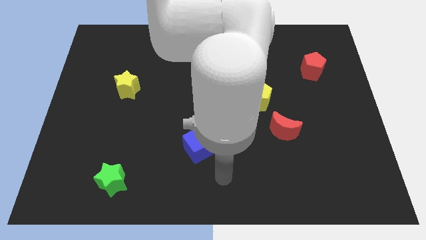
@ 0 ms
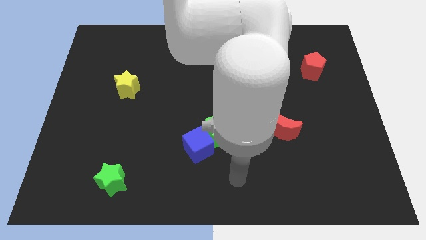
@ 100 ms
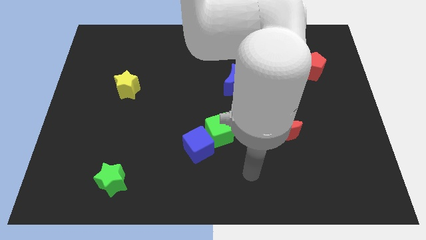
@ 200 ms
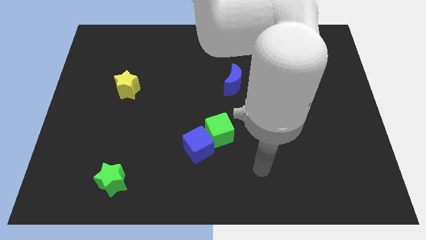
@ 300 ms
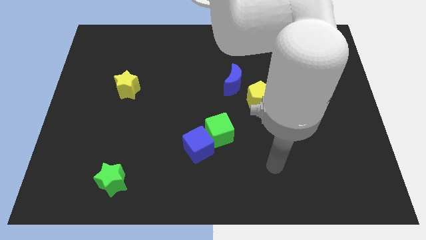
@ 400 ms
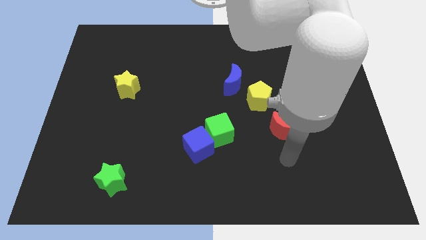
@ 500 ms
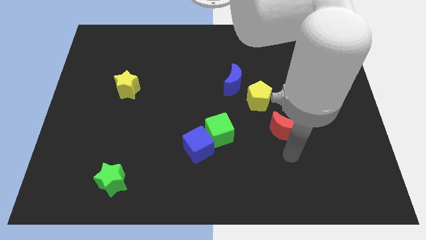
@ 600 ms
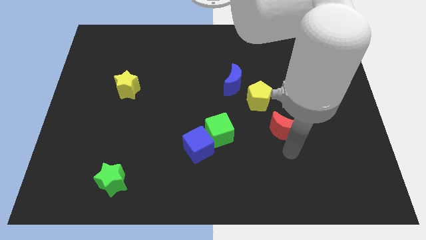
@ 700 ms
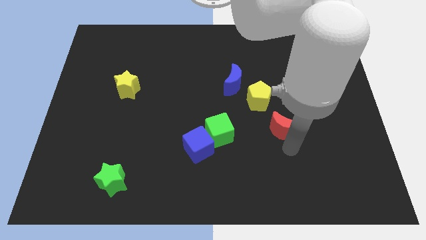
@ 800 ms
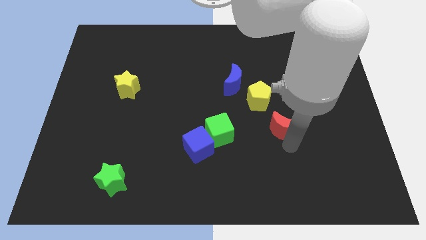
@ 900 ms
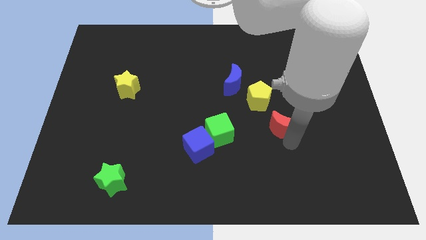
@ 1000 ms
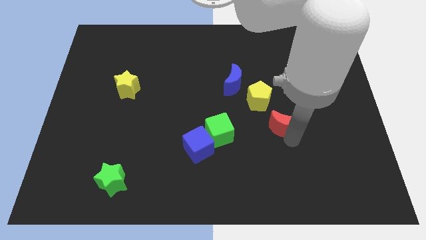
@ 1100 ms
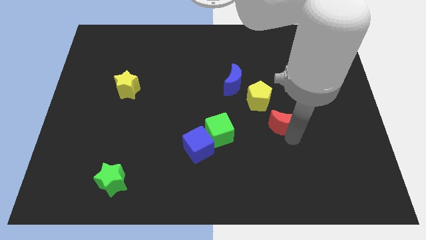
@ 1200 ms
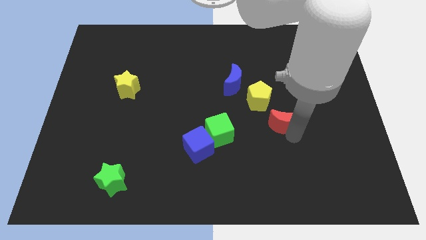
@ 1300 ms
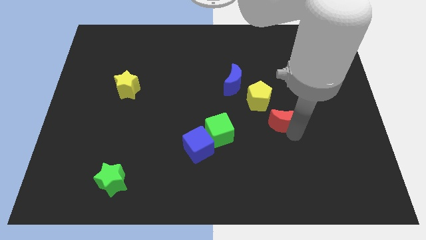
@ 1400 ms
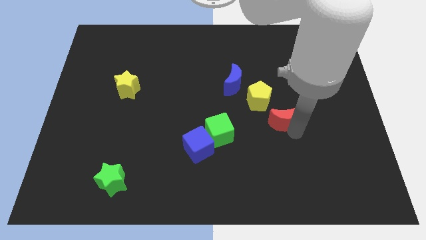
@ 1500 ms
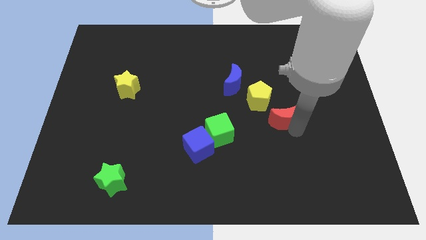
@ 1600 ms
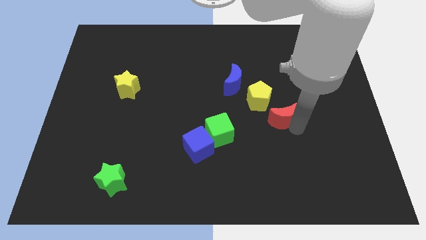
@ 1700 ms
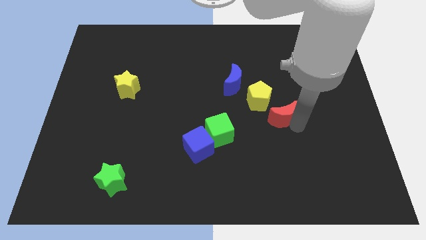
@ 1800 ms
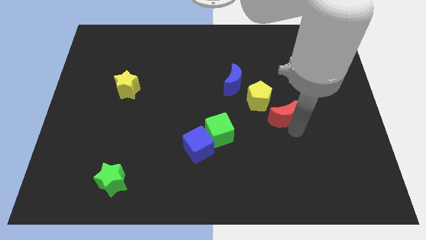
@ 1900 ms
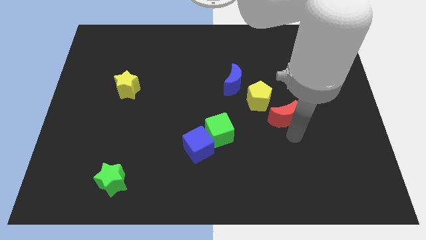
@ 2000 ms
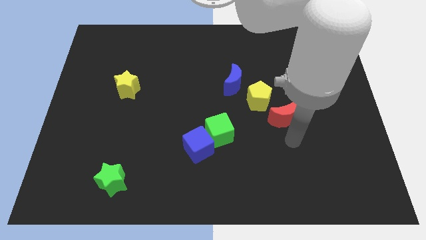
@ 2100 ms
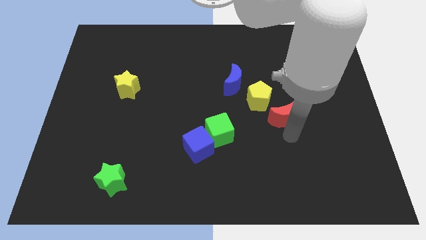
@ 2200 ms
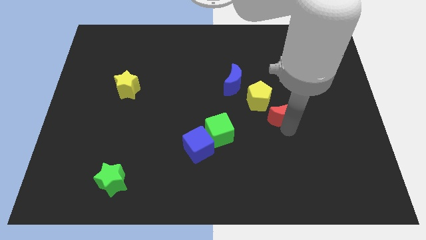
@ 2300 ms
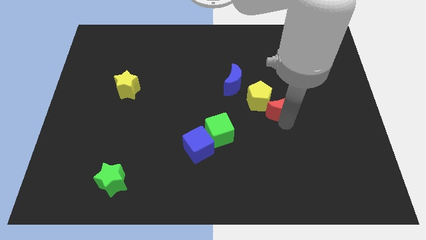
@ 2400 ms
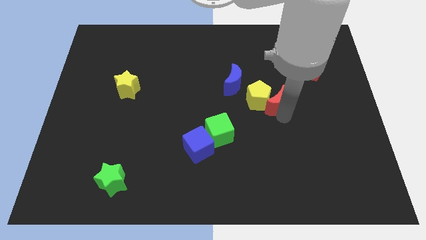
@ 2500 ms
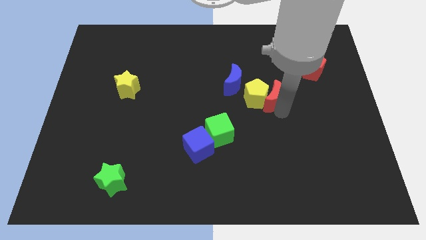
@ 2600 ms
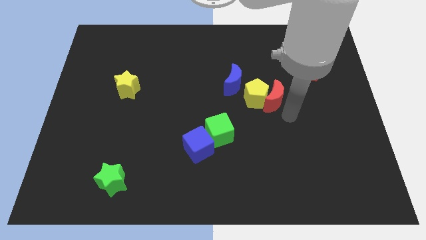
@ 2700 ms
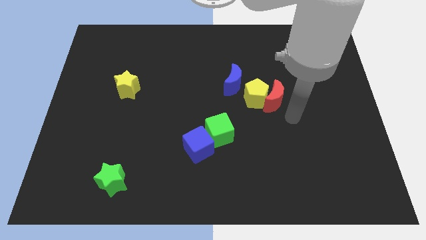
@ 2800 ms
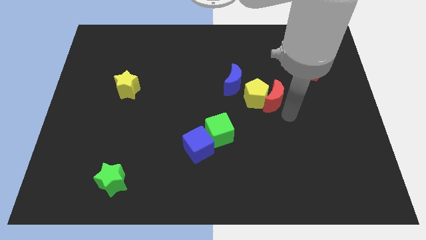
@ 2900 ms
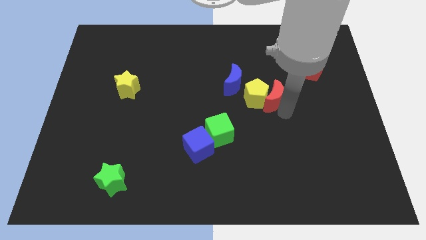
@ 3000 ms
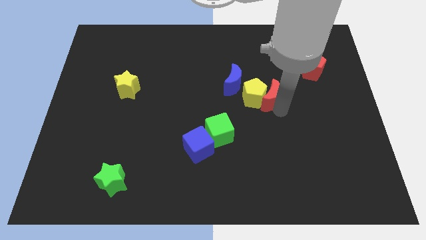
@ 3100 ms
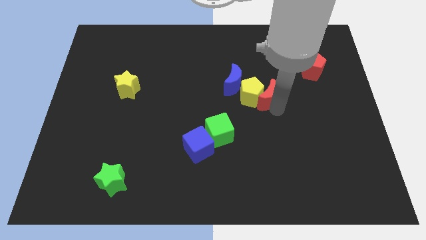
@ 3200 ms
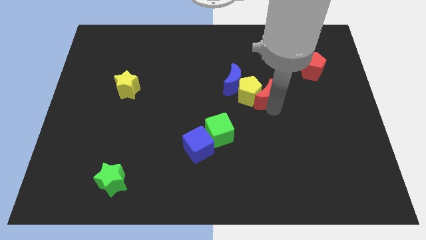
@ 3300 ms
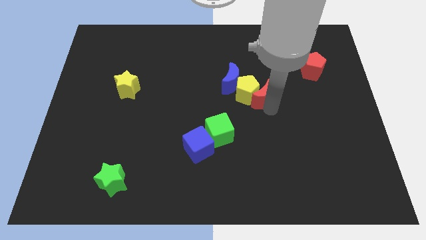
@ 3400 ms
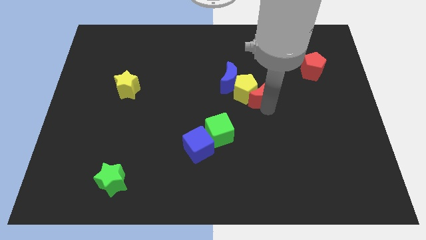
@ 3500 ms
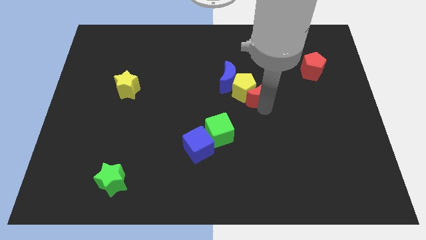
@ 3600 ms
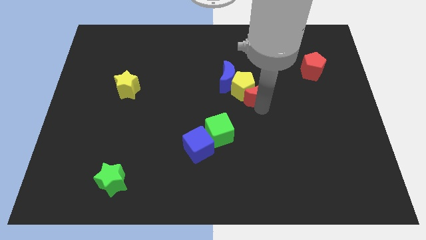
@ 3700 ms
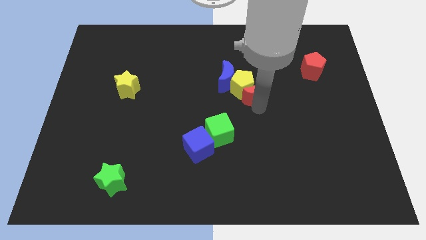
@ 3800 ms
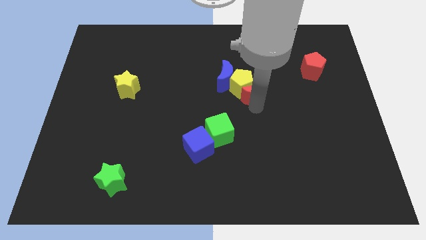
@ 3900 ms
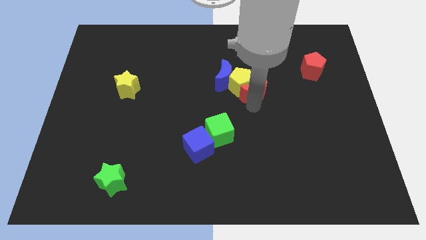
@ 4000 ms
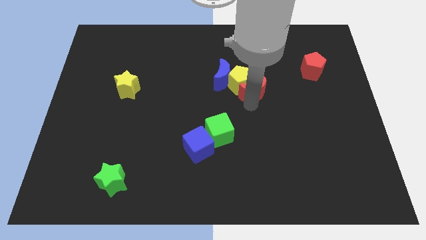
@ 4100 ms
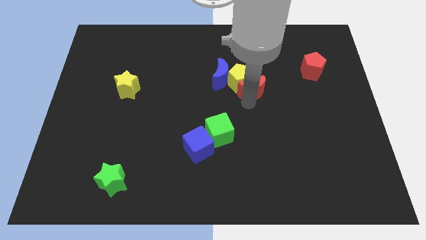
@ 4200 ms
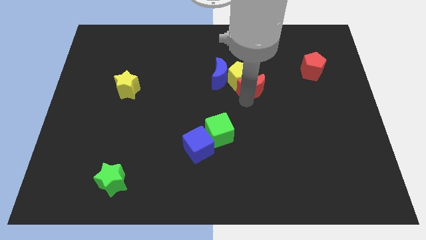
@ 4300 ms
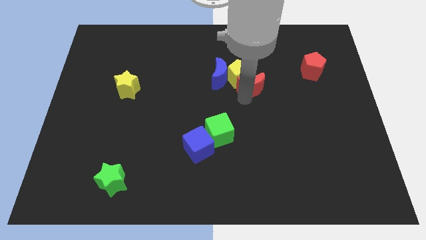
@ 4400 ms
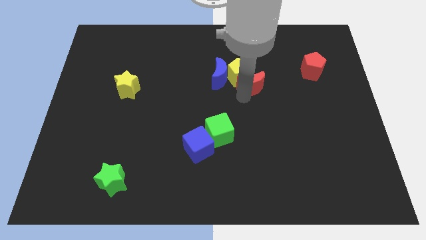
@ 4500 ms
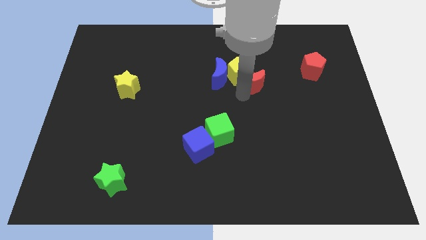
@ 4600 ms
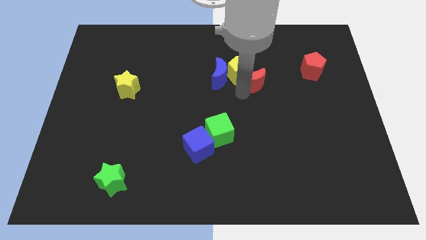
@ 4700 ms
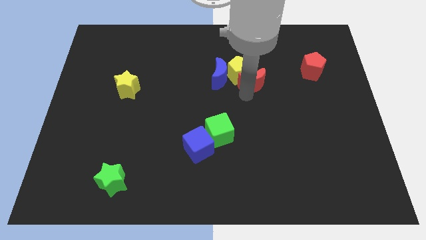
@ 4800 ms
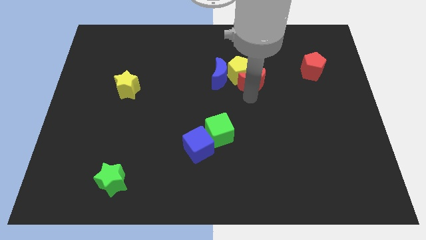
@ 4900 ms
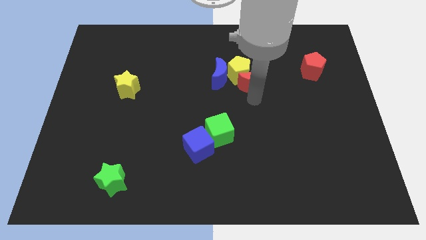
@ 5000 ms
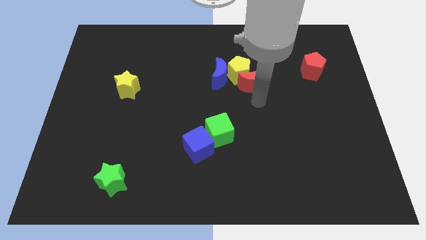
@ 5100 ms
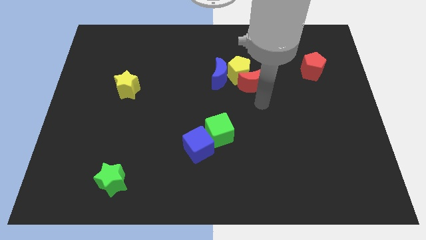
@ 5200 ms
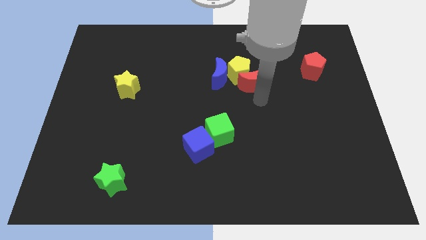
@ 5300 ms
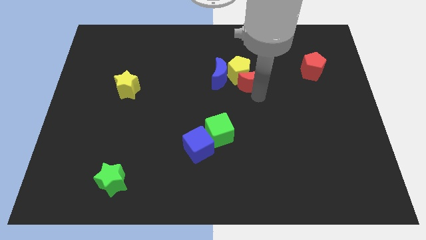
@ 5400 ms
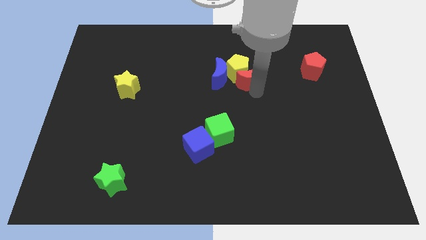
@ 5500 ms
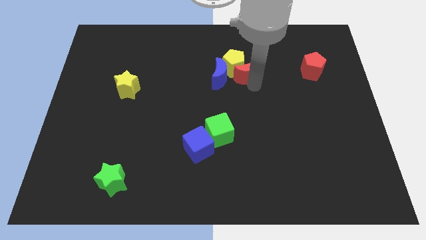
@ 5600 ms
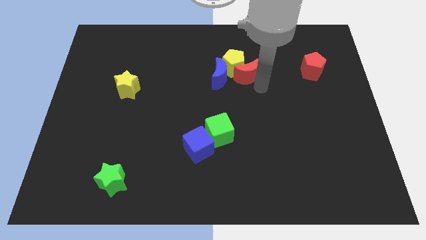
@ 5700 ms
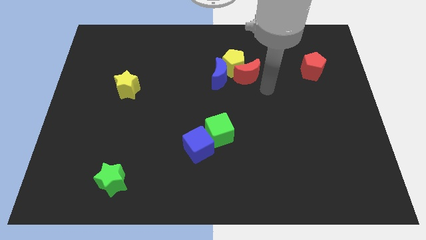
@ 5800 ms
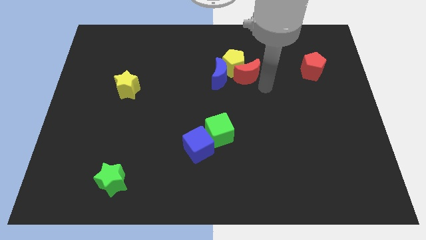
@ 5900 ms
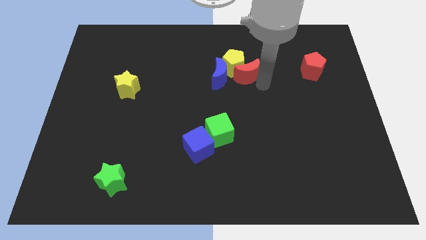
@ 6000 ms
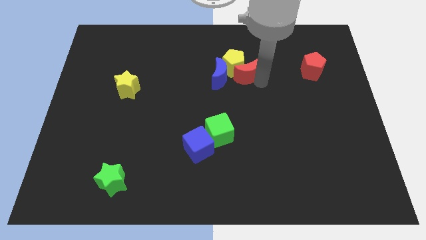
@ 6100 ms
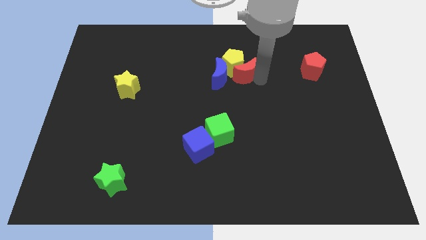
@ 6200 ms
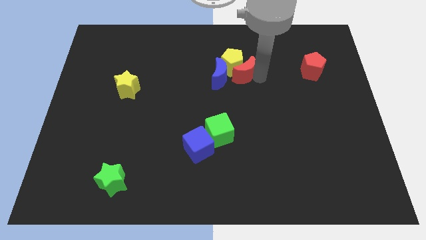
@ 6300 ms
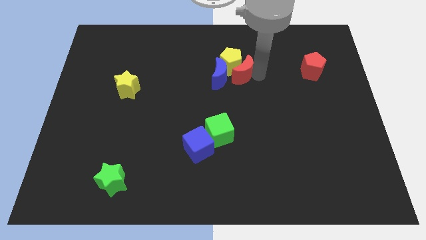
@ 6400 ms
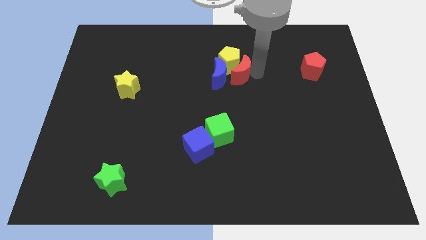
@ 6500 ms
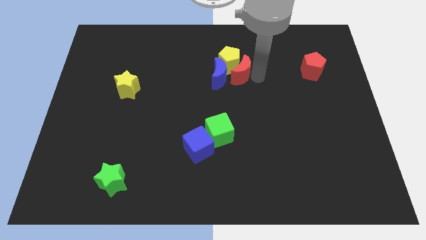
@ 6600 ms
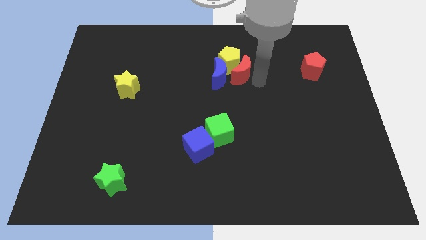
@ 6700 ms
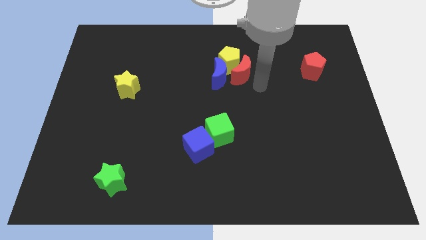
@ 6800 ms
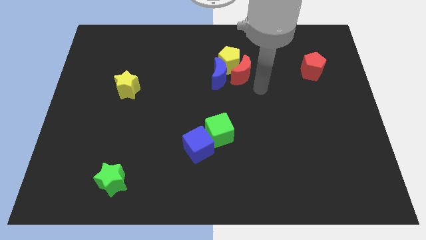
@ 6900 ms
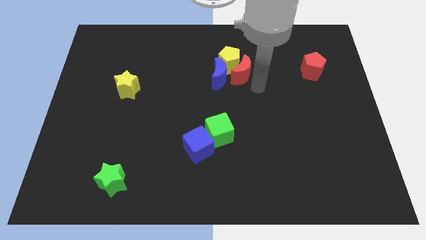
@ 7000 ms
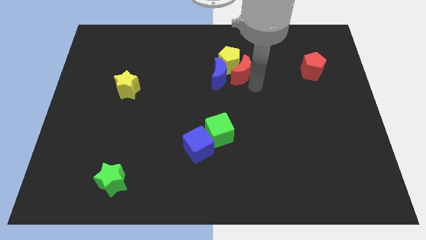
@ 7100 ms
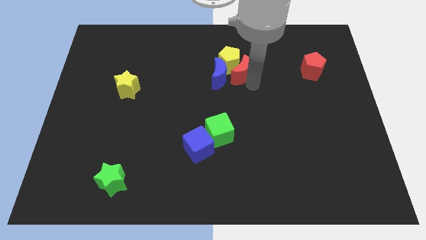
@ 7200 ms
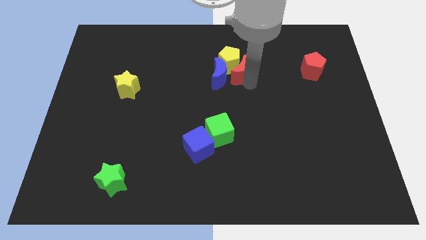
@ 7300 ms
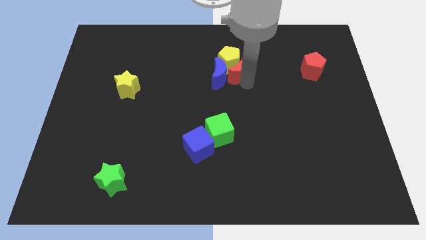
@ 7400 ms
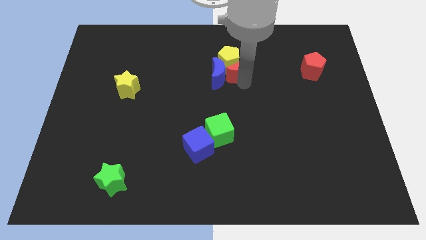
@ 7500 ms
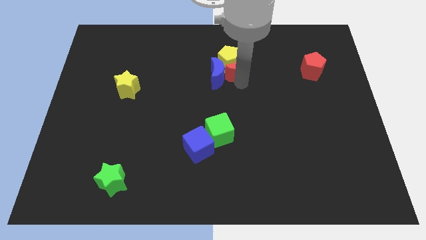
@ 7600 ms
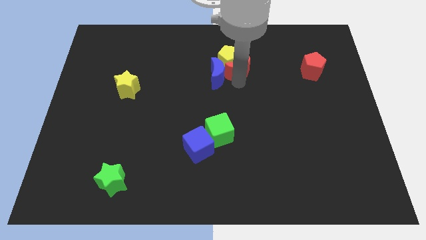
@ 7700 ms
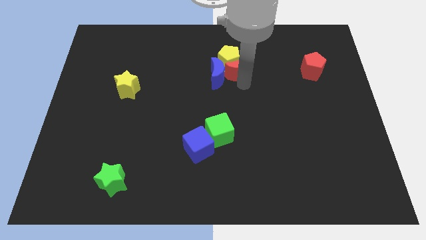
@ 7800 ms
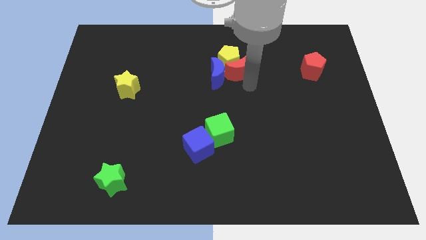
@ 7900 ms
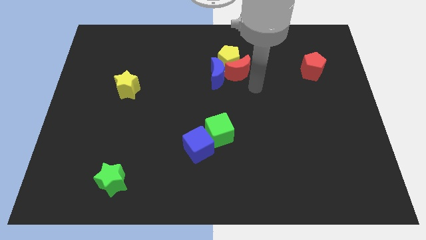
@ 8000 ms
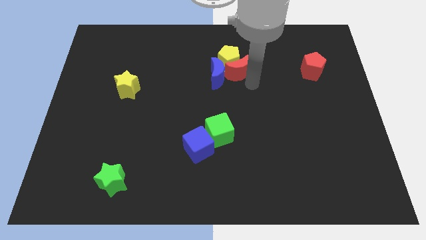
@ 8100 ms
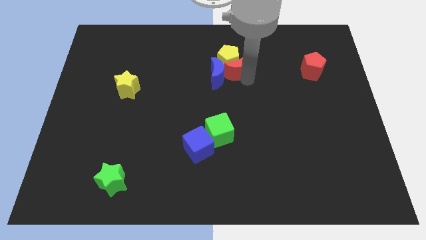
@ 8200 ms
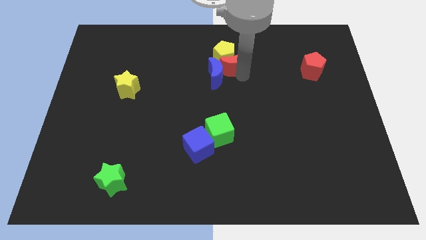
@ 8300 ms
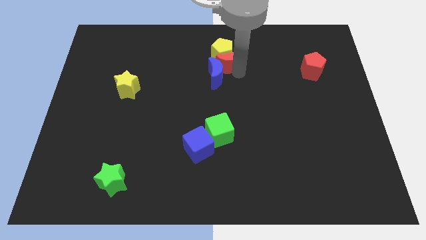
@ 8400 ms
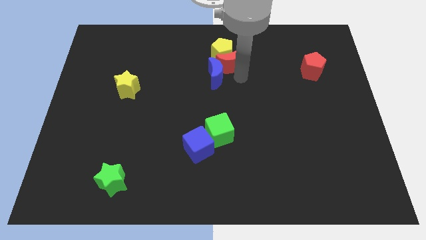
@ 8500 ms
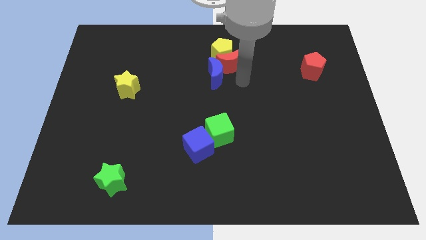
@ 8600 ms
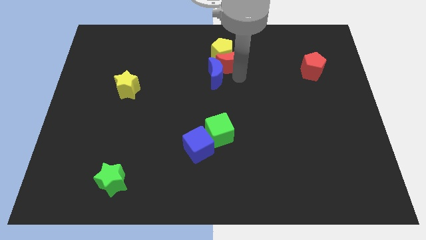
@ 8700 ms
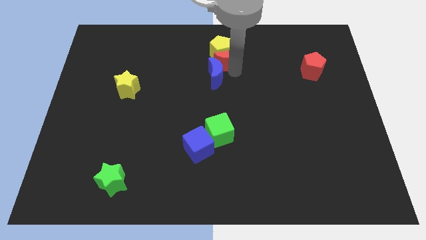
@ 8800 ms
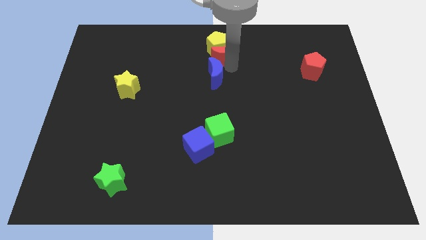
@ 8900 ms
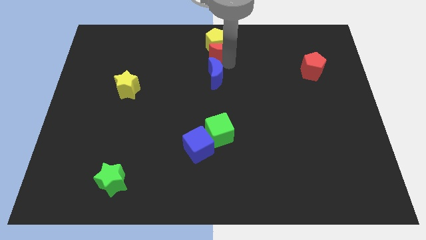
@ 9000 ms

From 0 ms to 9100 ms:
push the red moon to the top side
